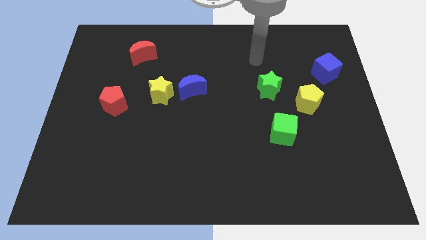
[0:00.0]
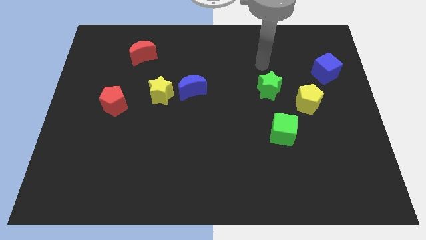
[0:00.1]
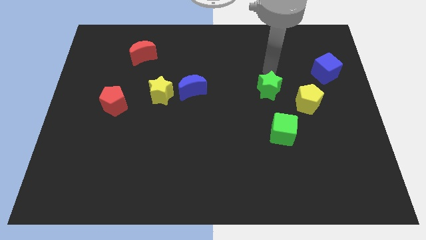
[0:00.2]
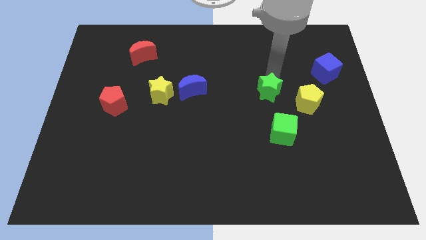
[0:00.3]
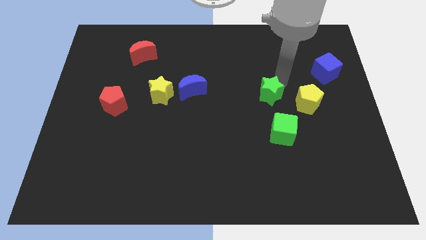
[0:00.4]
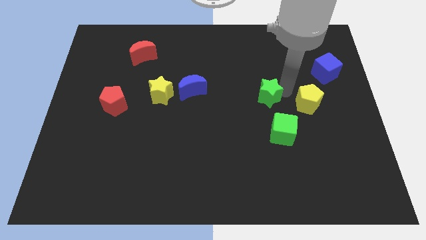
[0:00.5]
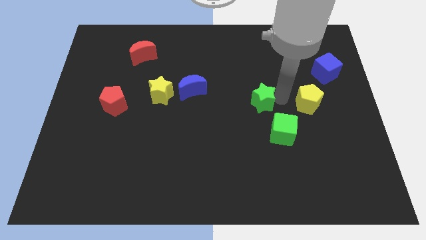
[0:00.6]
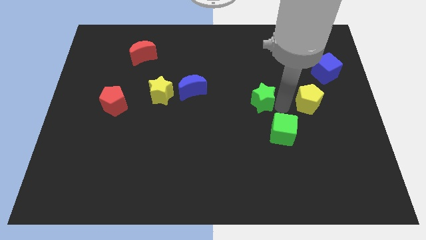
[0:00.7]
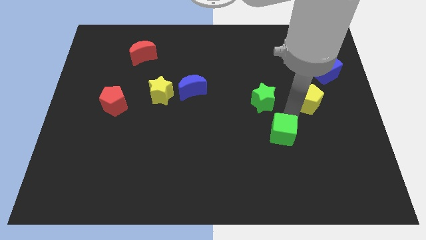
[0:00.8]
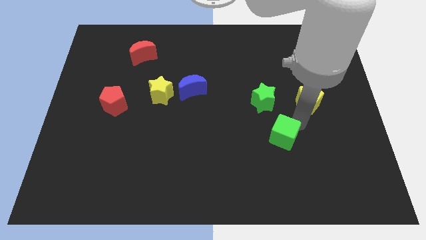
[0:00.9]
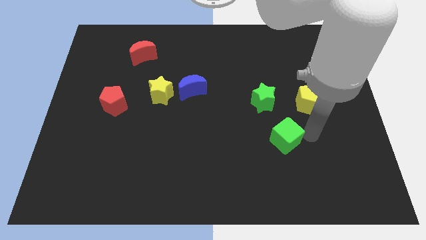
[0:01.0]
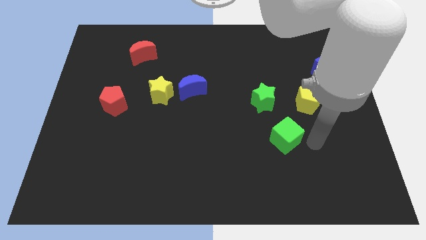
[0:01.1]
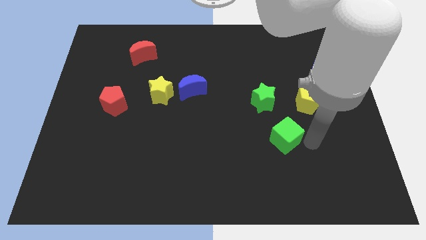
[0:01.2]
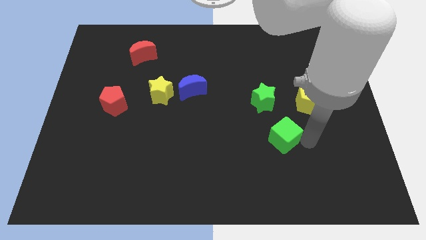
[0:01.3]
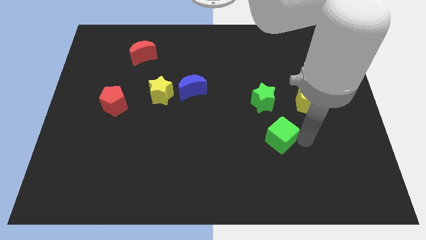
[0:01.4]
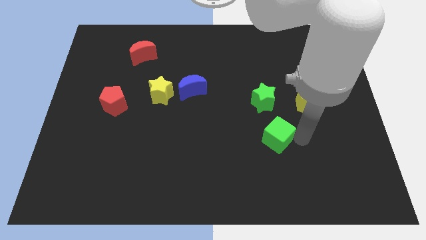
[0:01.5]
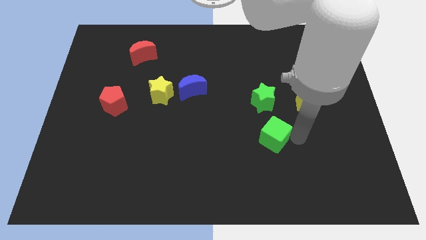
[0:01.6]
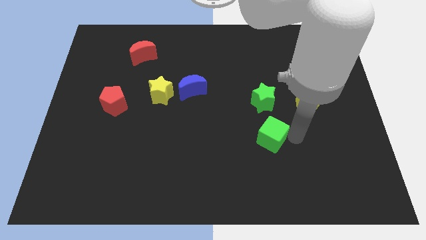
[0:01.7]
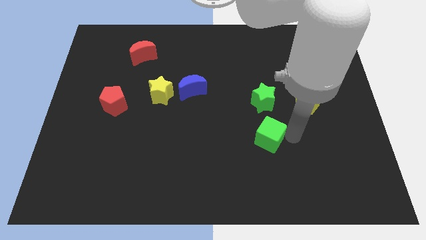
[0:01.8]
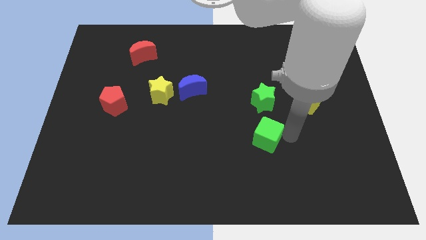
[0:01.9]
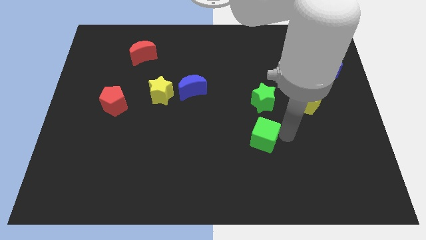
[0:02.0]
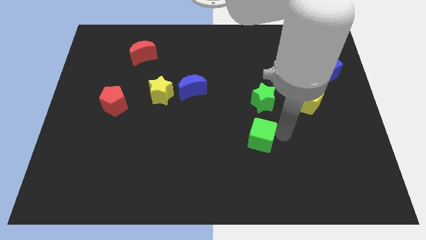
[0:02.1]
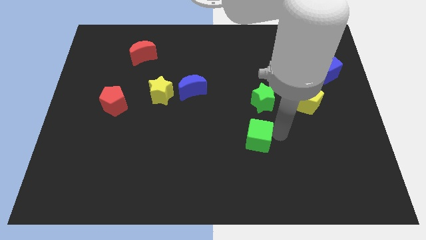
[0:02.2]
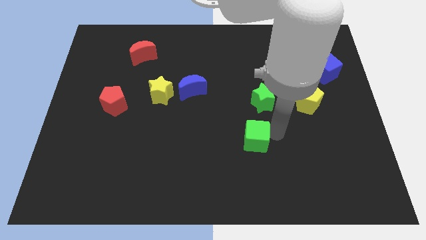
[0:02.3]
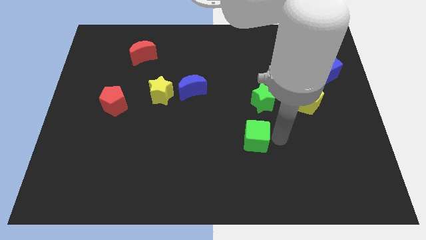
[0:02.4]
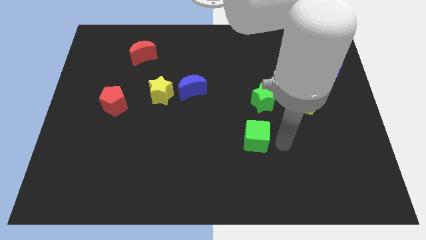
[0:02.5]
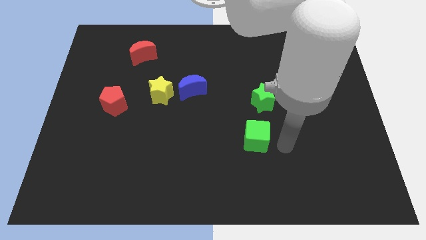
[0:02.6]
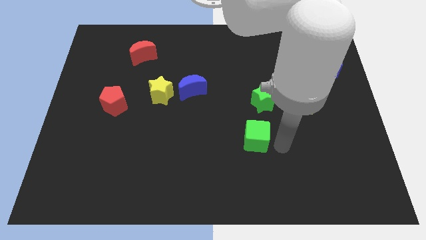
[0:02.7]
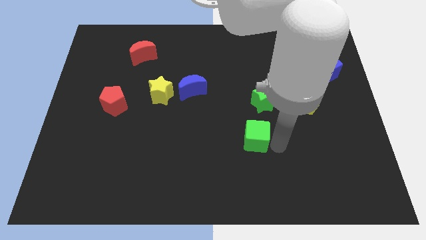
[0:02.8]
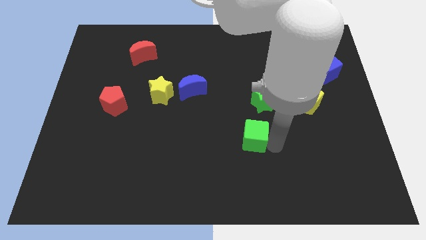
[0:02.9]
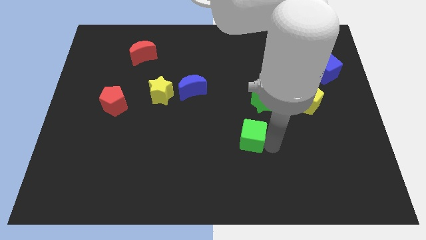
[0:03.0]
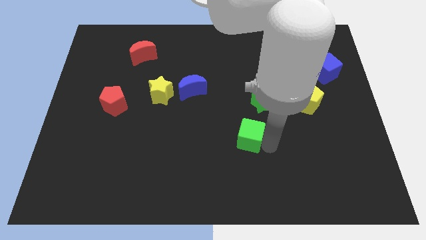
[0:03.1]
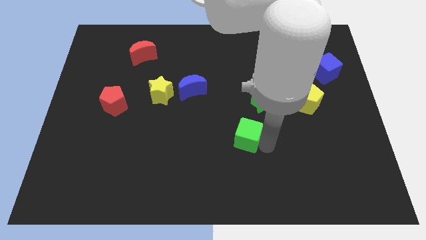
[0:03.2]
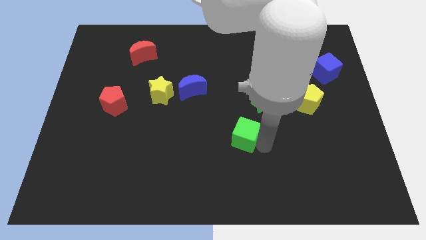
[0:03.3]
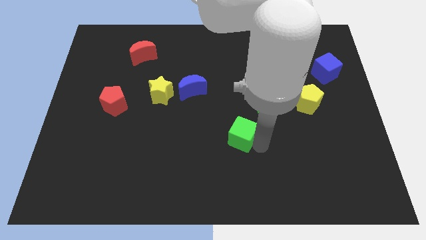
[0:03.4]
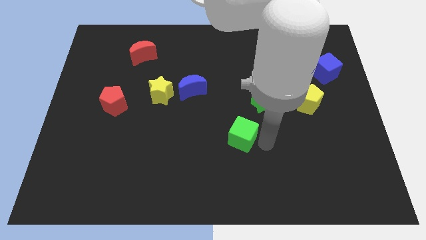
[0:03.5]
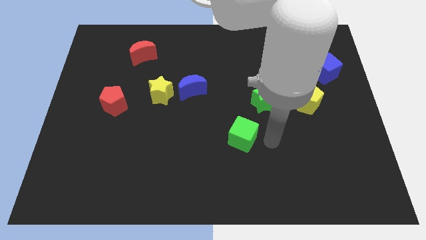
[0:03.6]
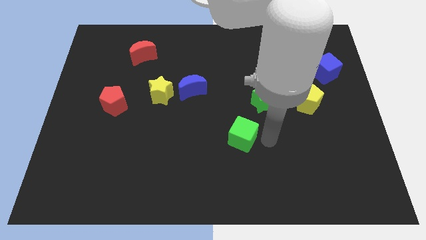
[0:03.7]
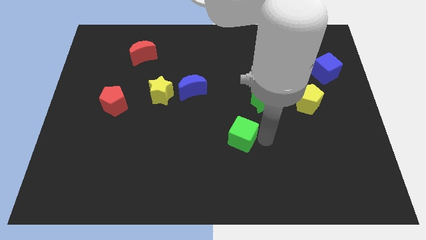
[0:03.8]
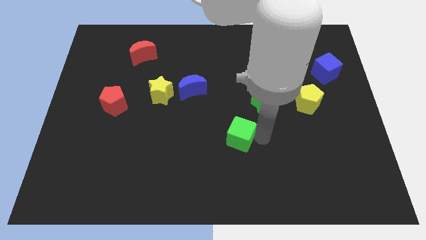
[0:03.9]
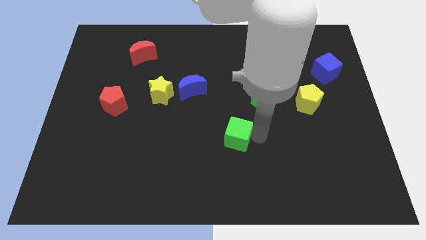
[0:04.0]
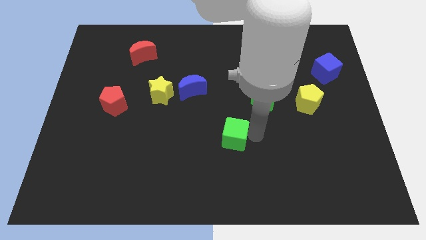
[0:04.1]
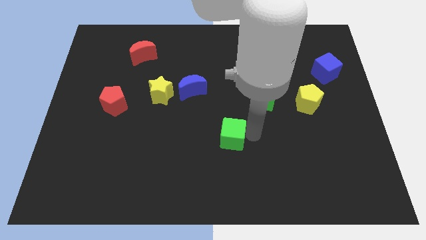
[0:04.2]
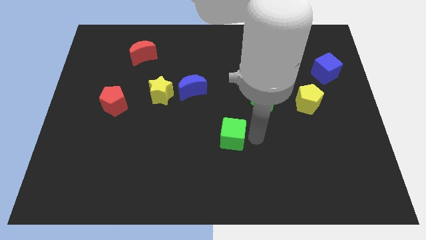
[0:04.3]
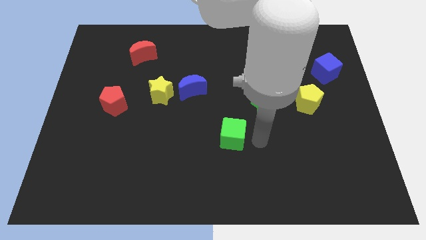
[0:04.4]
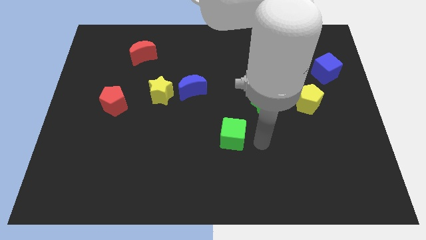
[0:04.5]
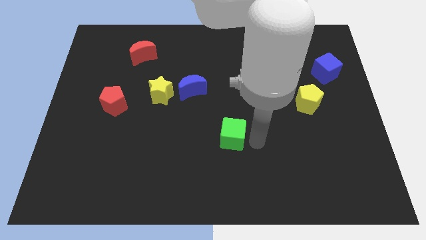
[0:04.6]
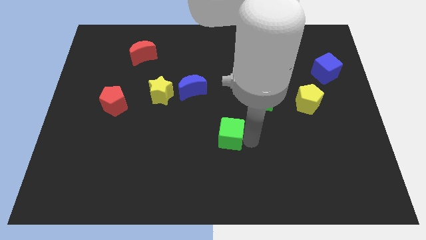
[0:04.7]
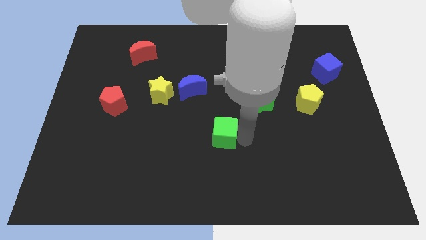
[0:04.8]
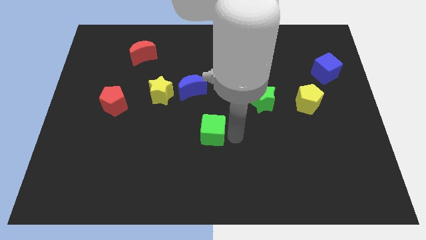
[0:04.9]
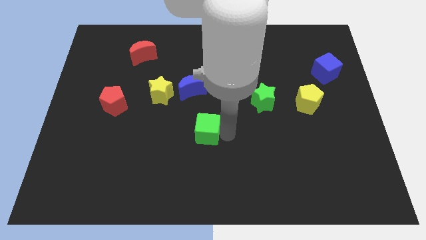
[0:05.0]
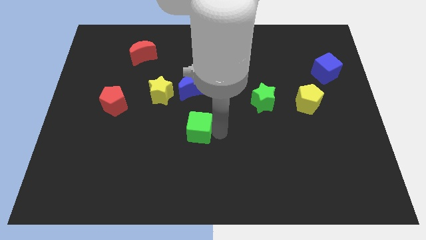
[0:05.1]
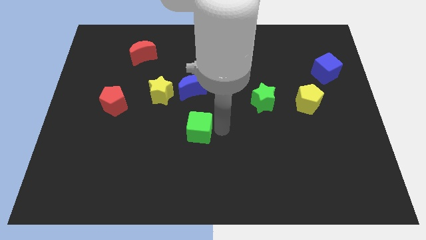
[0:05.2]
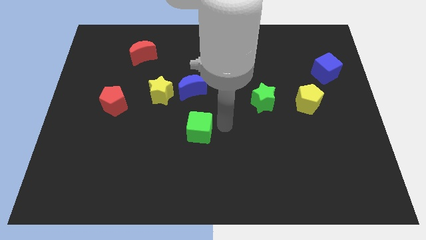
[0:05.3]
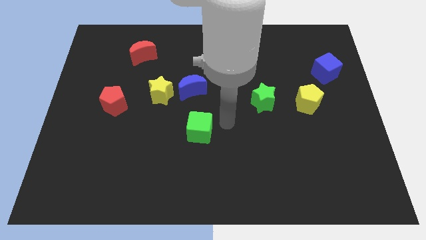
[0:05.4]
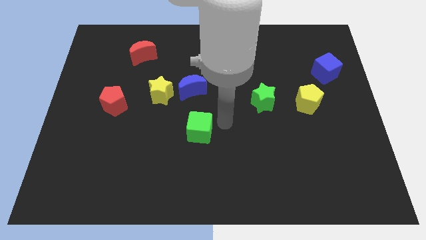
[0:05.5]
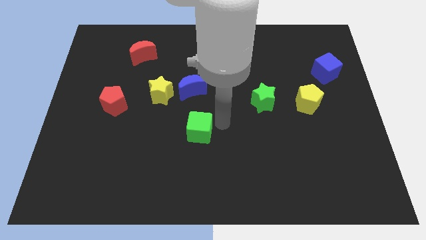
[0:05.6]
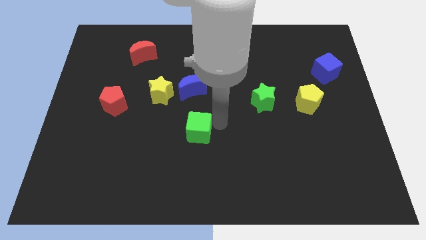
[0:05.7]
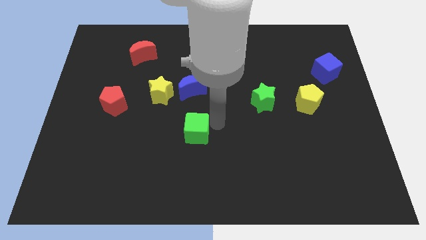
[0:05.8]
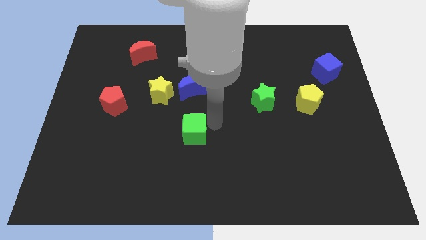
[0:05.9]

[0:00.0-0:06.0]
move the green cube to the left

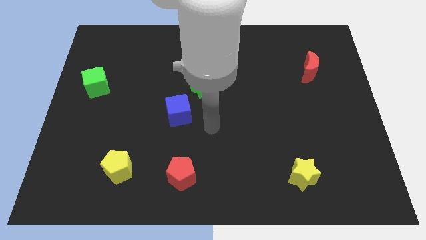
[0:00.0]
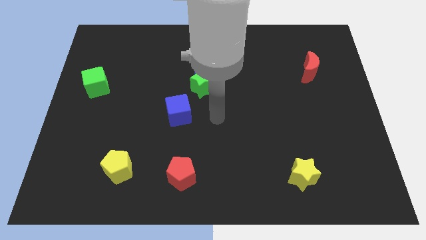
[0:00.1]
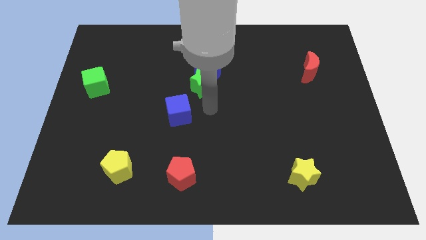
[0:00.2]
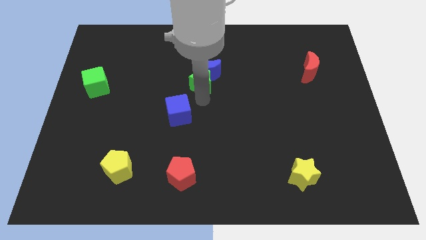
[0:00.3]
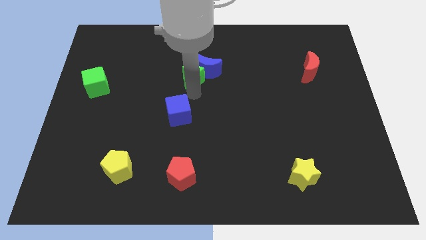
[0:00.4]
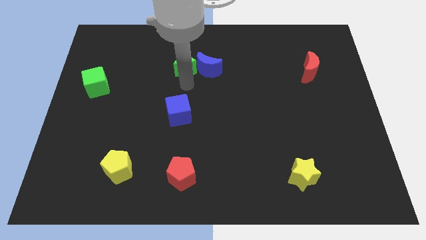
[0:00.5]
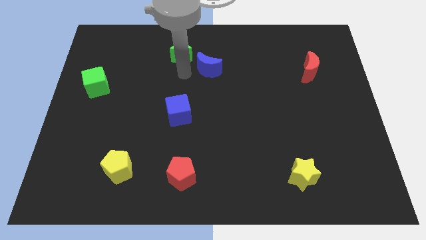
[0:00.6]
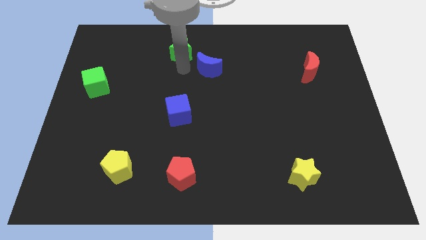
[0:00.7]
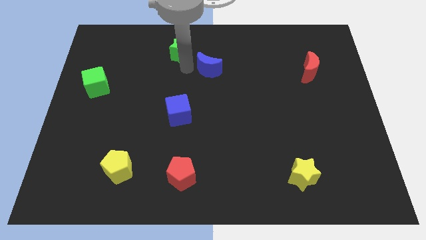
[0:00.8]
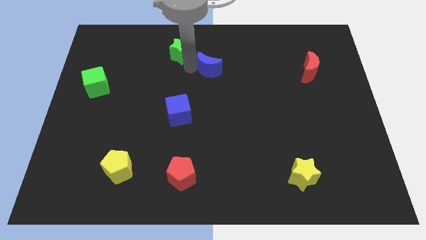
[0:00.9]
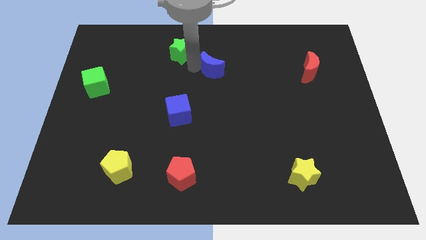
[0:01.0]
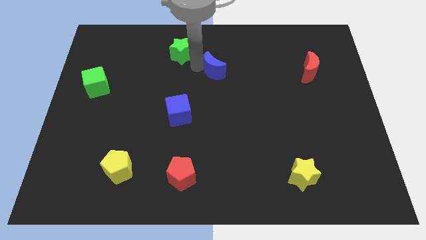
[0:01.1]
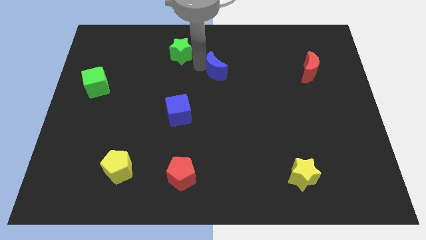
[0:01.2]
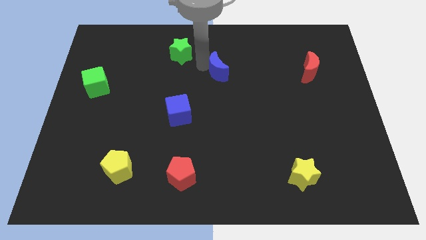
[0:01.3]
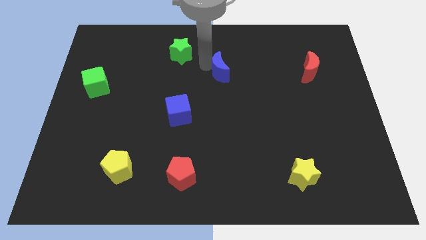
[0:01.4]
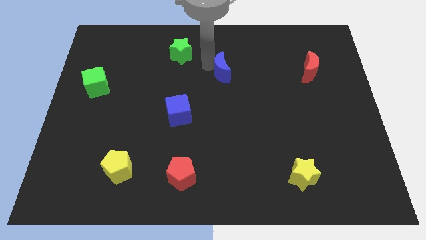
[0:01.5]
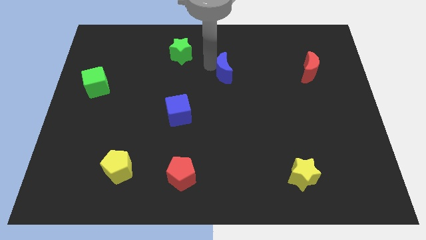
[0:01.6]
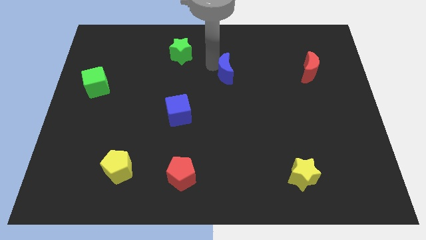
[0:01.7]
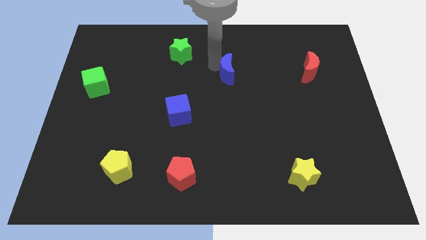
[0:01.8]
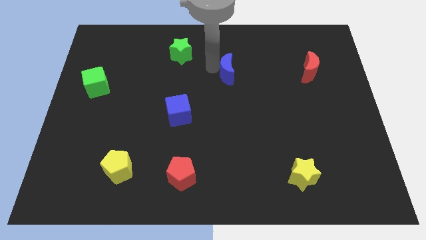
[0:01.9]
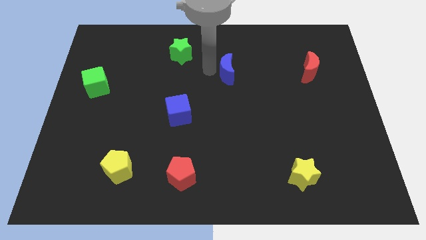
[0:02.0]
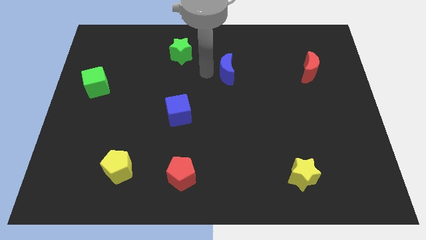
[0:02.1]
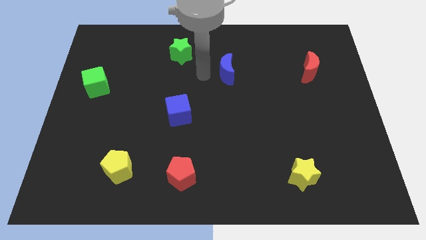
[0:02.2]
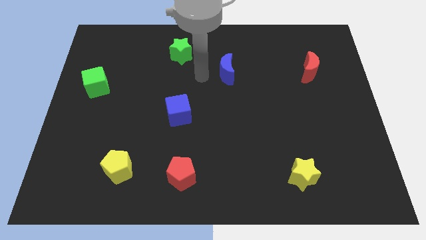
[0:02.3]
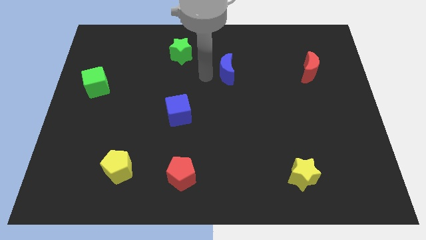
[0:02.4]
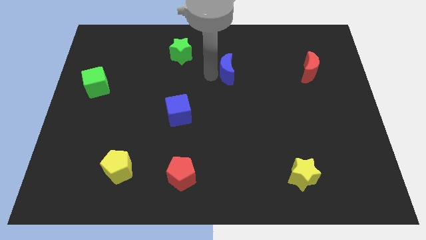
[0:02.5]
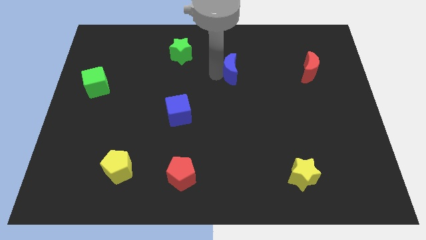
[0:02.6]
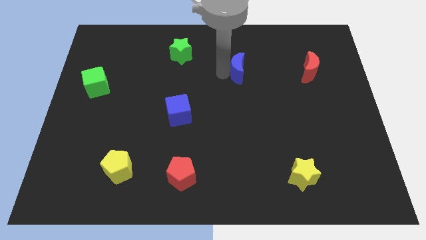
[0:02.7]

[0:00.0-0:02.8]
push the blue moon somewhat to the right
